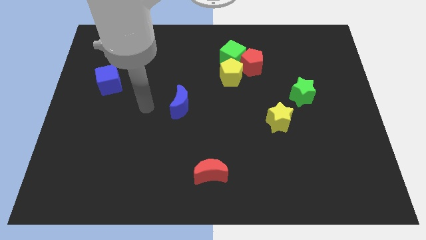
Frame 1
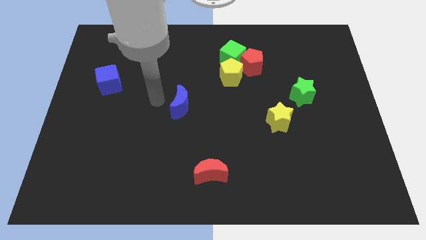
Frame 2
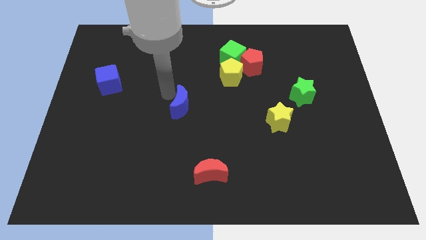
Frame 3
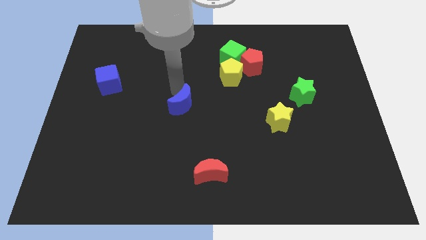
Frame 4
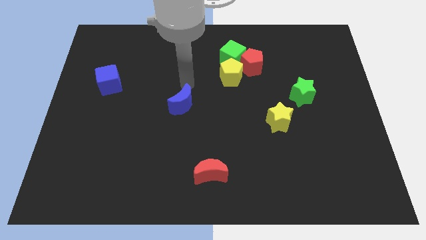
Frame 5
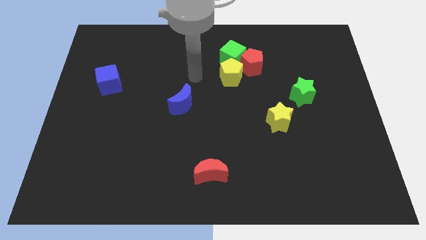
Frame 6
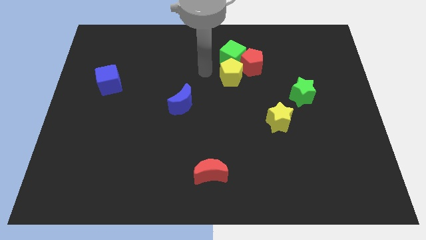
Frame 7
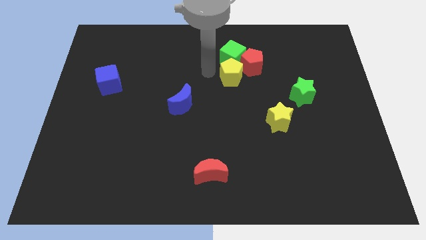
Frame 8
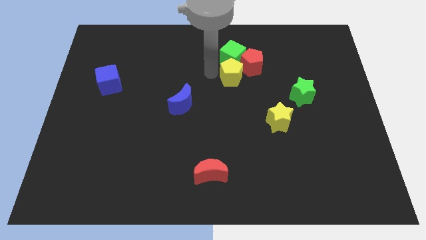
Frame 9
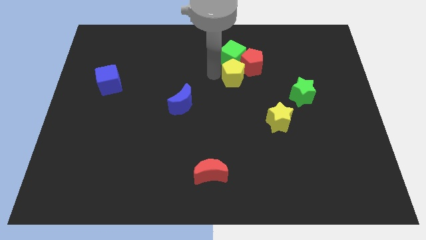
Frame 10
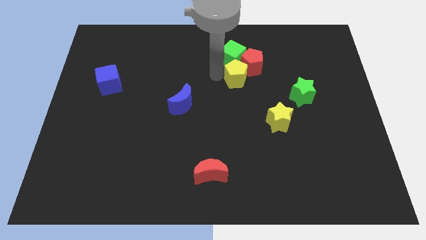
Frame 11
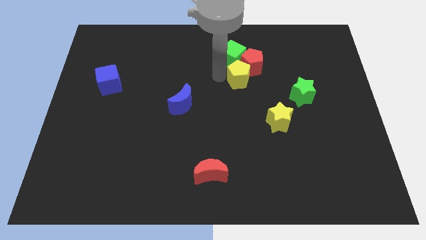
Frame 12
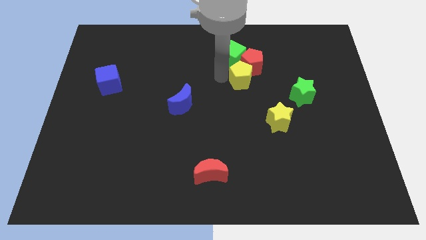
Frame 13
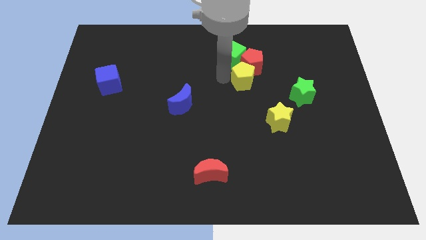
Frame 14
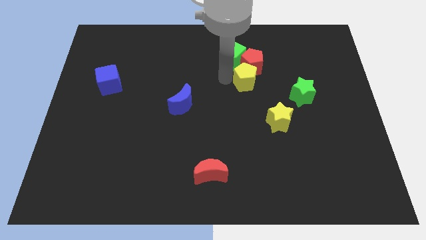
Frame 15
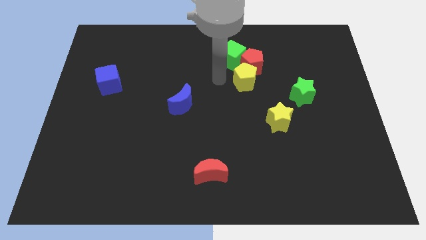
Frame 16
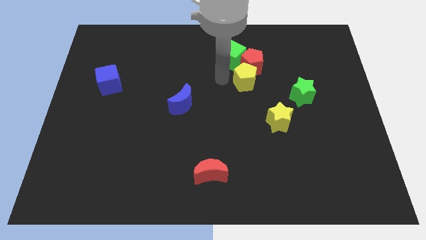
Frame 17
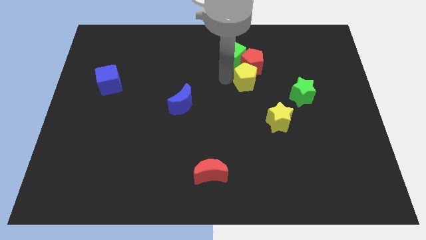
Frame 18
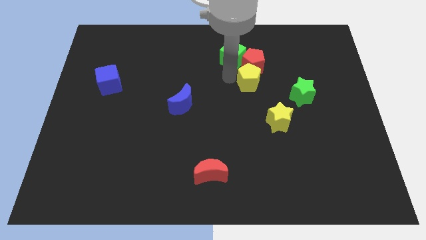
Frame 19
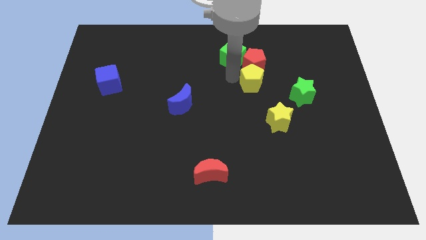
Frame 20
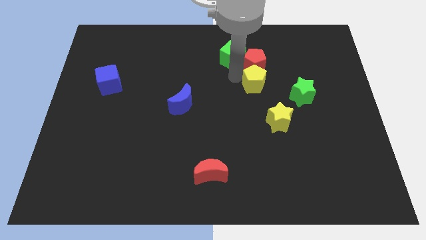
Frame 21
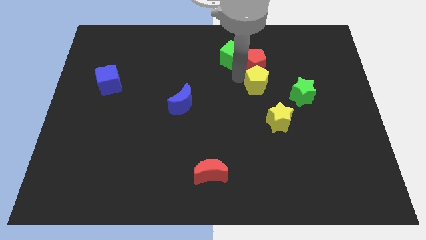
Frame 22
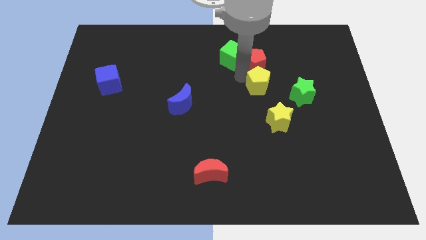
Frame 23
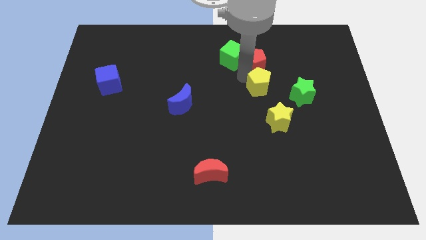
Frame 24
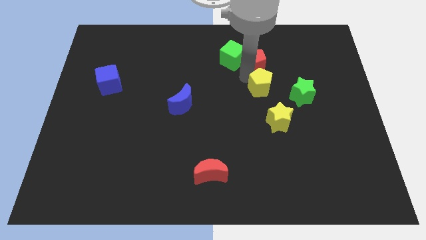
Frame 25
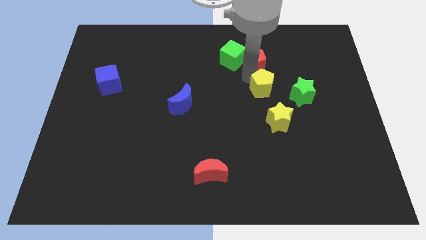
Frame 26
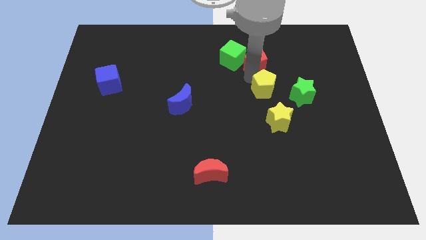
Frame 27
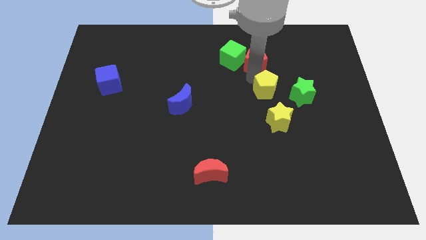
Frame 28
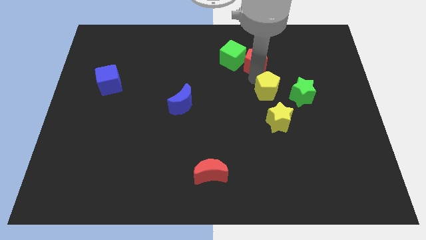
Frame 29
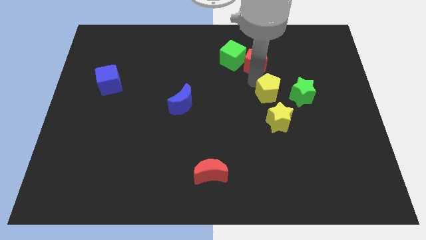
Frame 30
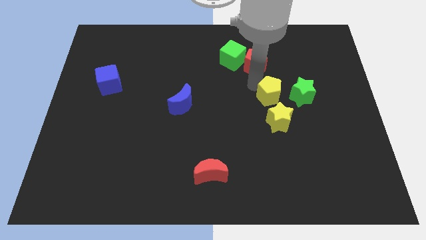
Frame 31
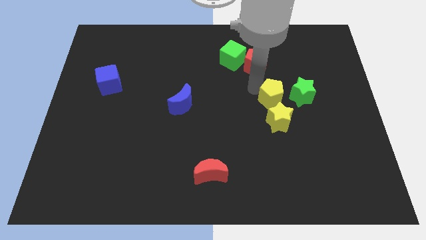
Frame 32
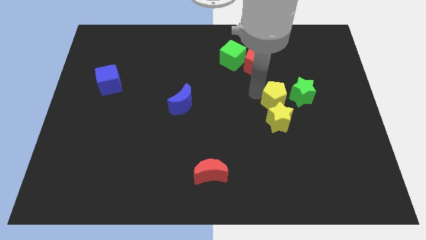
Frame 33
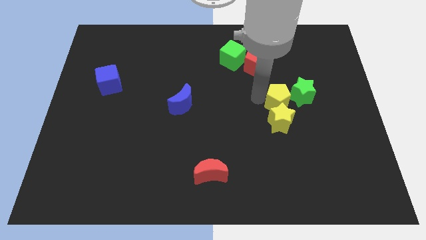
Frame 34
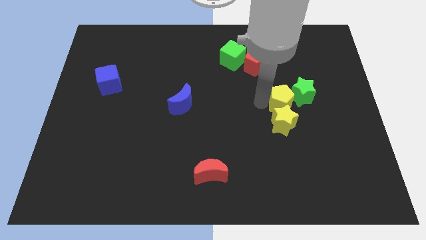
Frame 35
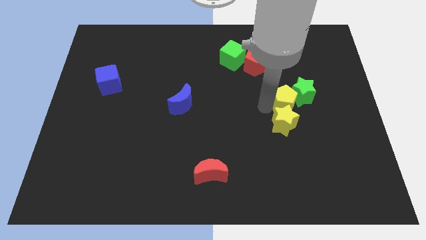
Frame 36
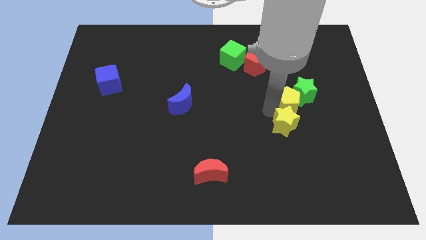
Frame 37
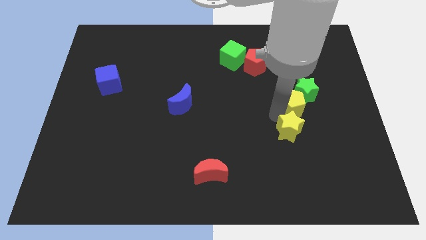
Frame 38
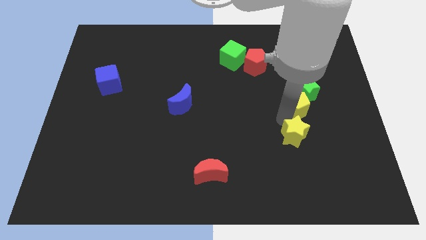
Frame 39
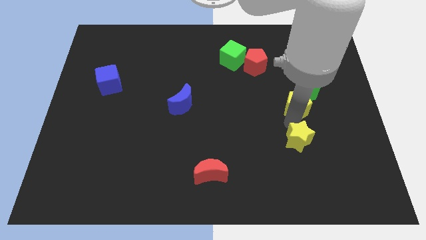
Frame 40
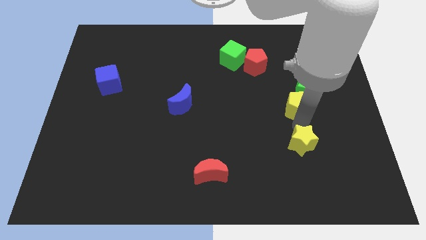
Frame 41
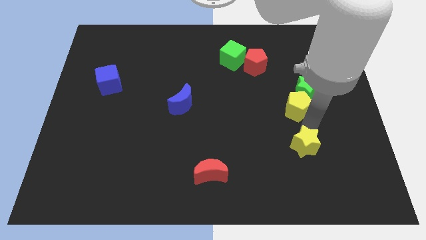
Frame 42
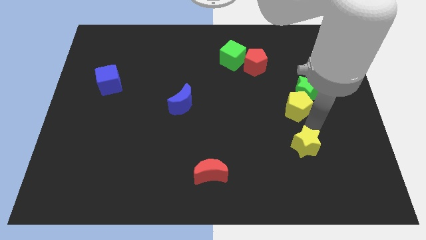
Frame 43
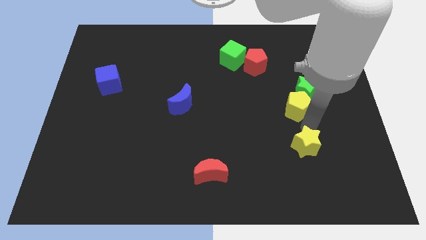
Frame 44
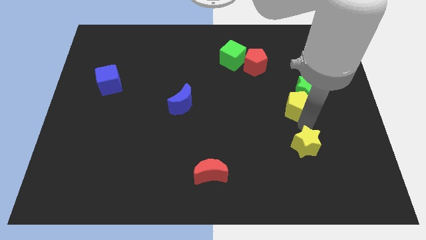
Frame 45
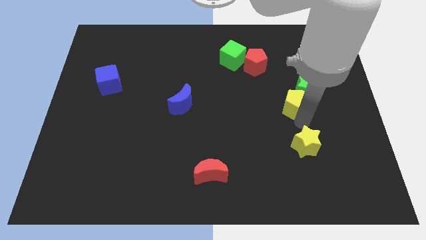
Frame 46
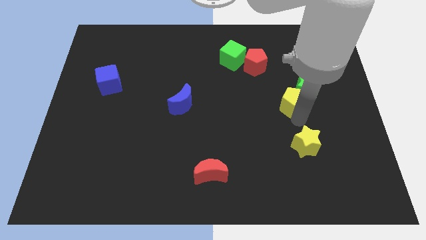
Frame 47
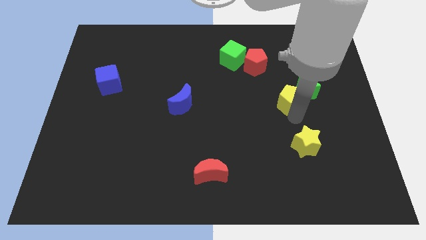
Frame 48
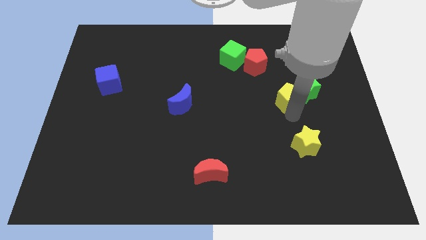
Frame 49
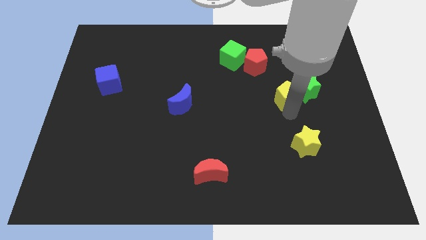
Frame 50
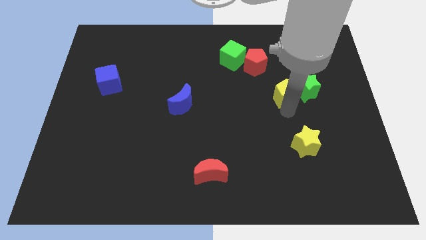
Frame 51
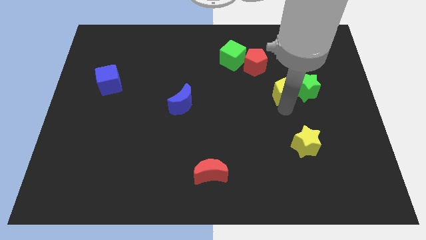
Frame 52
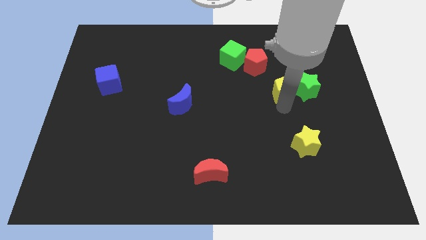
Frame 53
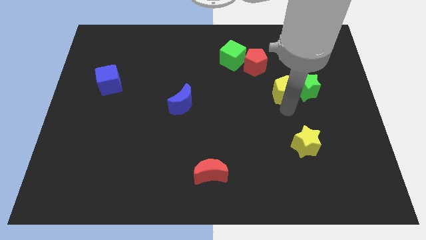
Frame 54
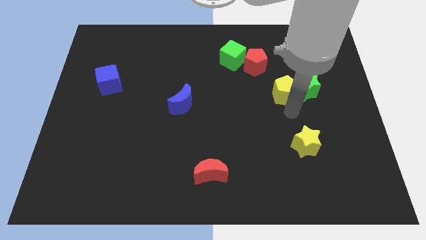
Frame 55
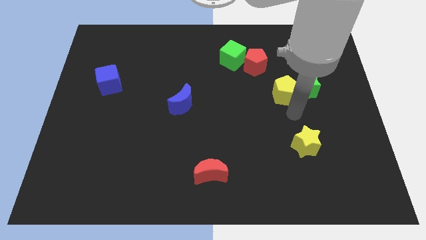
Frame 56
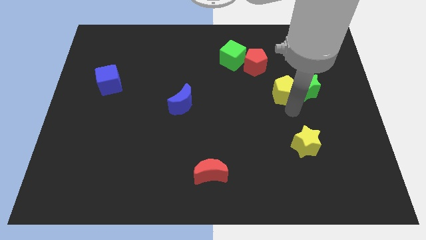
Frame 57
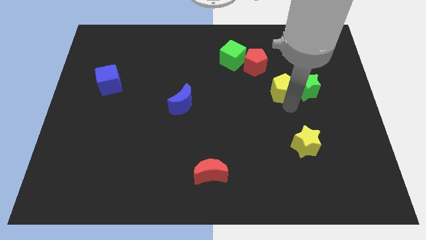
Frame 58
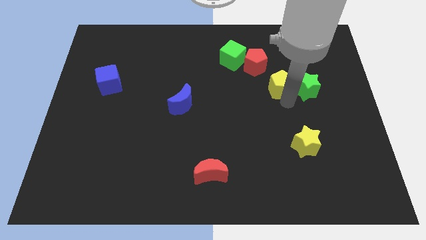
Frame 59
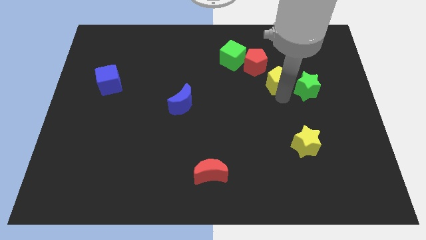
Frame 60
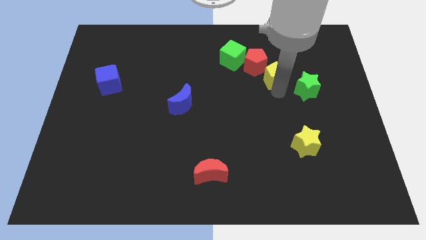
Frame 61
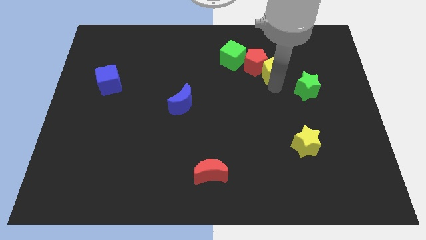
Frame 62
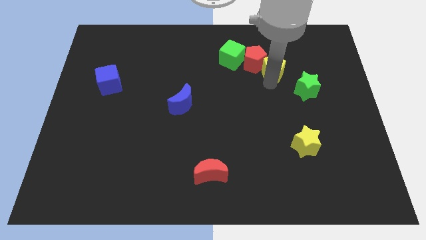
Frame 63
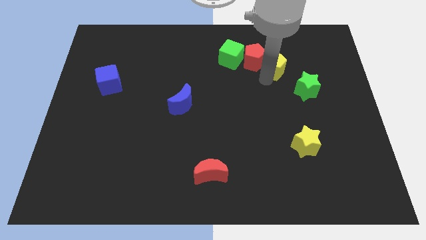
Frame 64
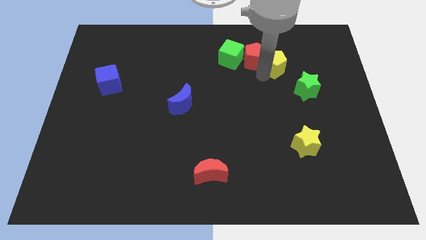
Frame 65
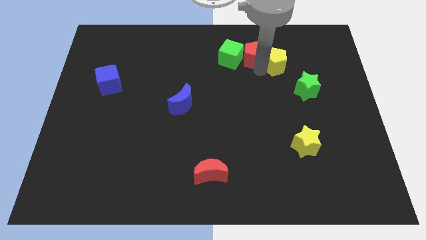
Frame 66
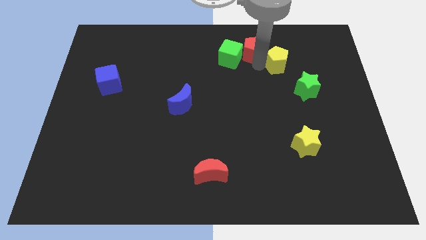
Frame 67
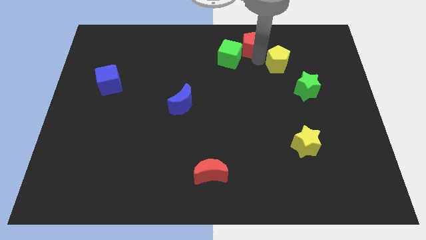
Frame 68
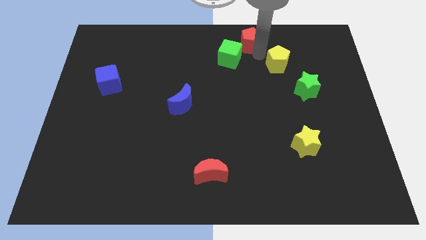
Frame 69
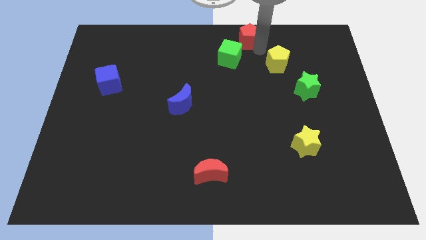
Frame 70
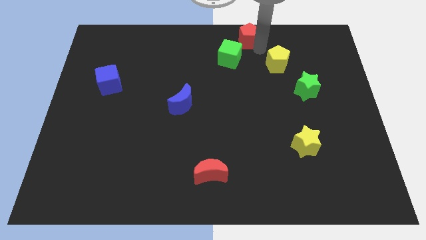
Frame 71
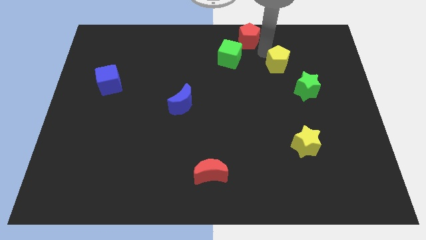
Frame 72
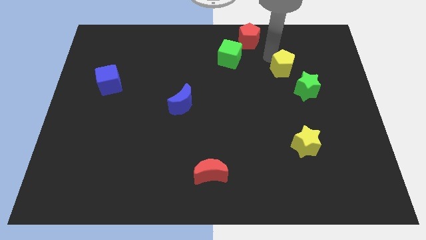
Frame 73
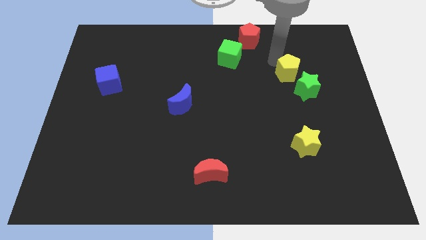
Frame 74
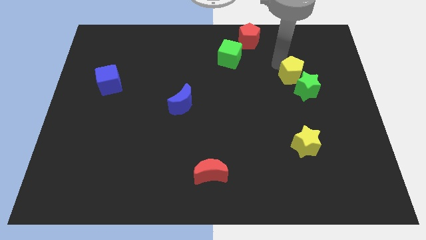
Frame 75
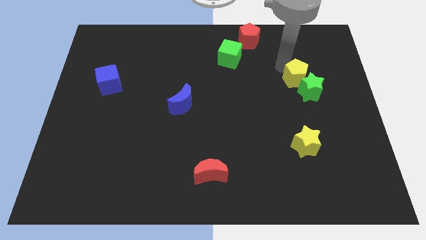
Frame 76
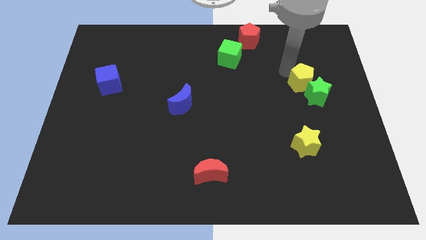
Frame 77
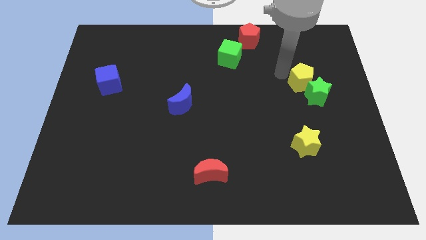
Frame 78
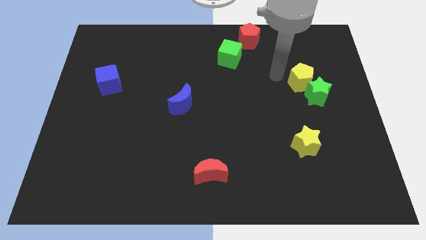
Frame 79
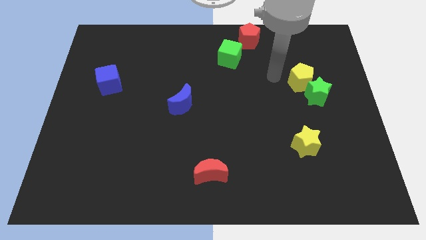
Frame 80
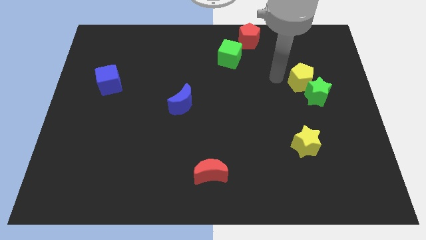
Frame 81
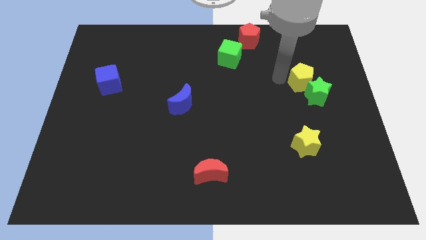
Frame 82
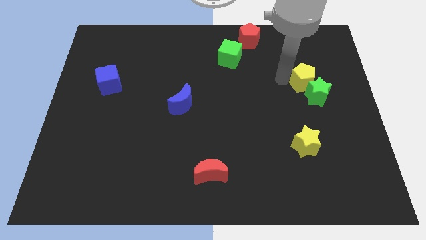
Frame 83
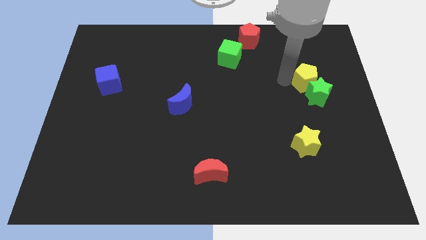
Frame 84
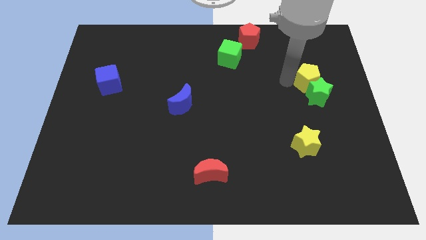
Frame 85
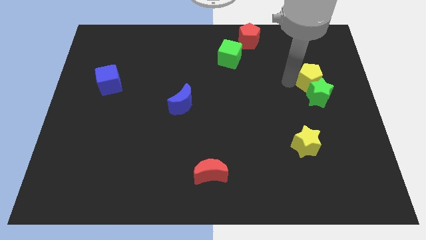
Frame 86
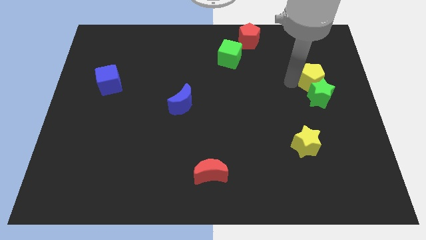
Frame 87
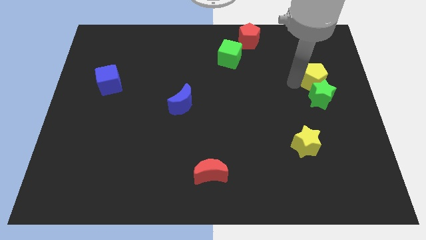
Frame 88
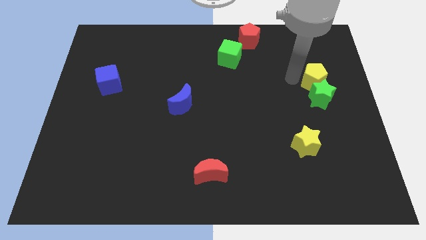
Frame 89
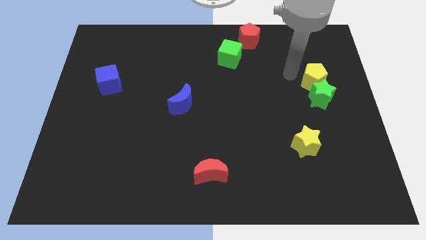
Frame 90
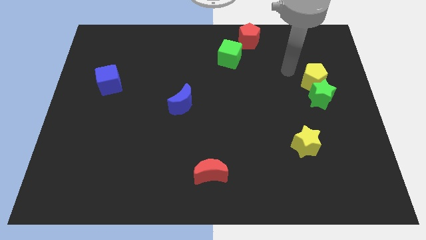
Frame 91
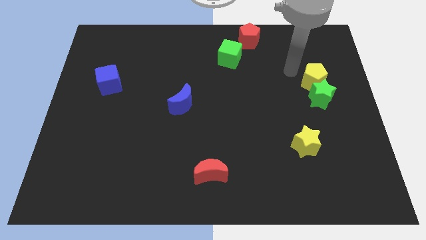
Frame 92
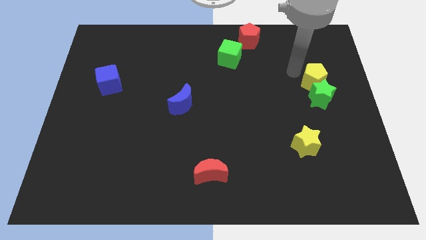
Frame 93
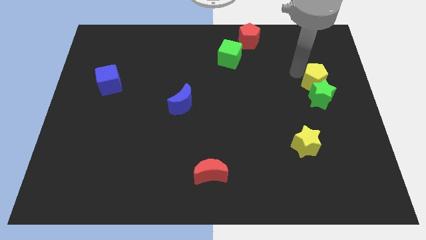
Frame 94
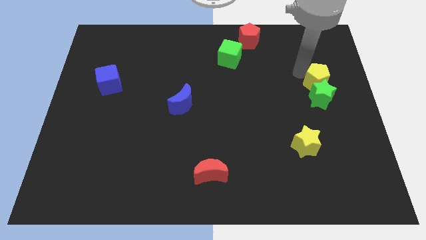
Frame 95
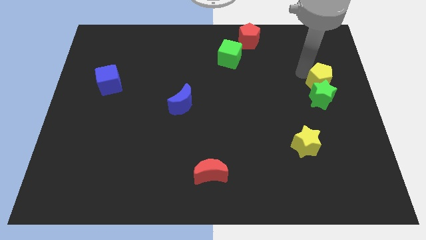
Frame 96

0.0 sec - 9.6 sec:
push the yellow pentagon to the center right
